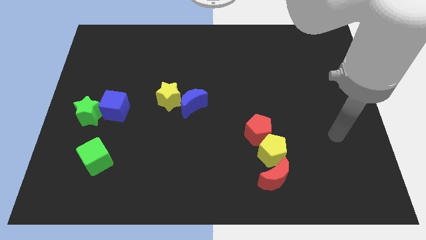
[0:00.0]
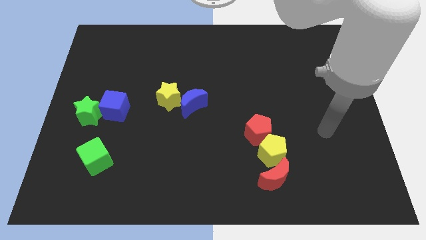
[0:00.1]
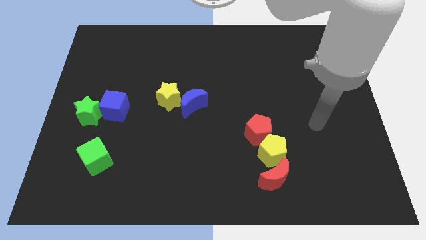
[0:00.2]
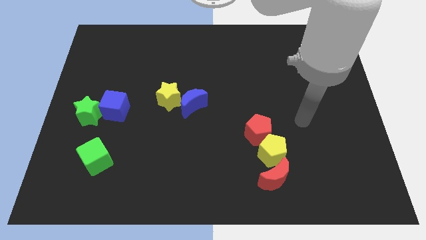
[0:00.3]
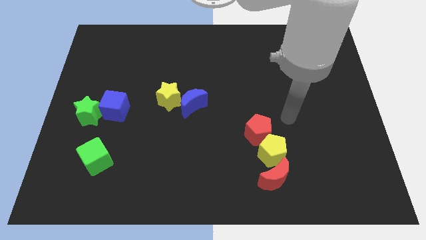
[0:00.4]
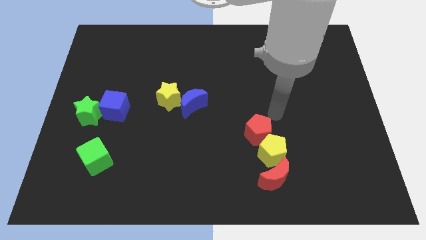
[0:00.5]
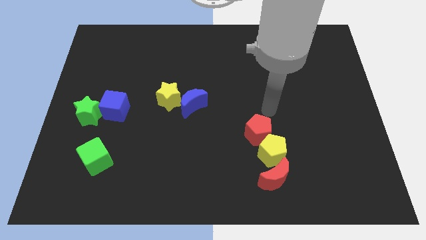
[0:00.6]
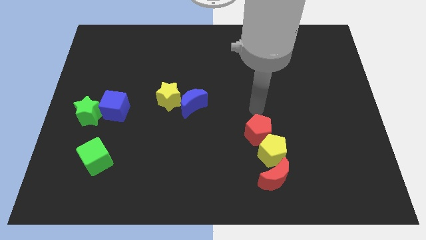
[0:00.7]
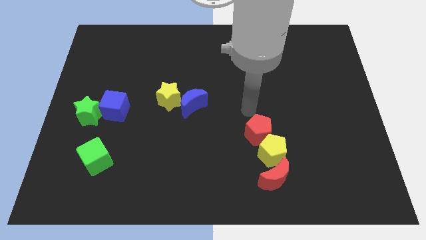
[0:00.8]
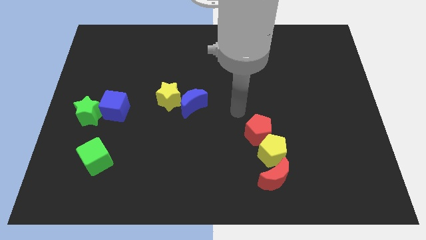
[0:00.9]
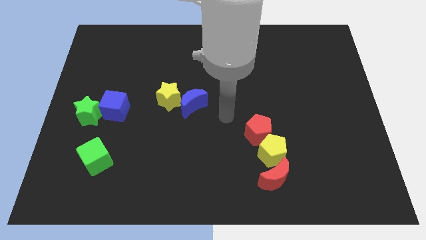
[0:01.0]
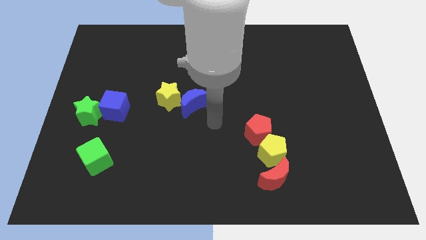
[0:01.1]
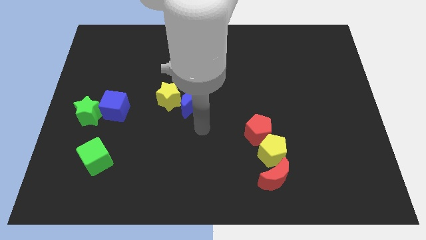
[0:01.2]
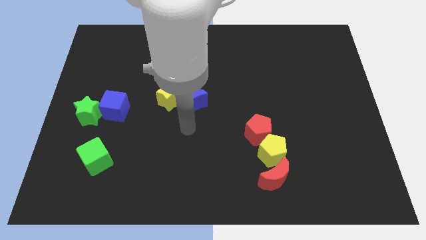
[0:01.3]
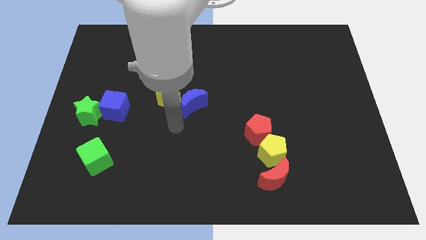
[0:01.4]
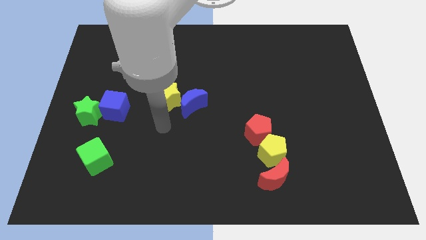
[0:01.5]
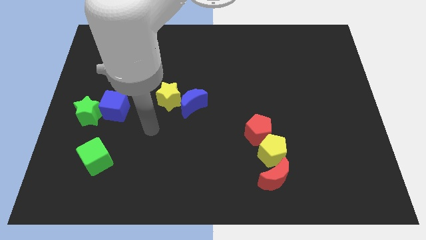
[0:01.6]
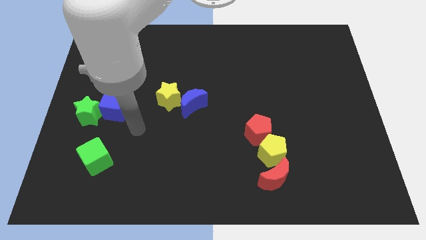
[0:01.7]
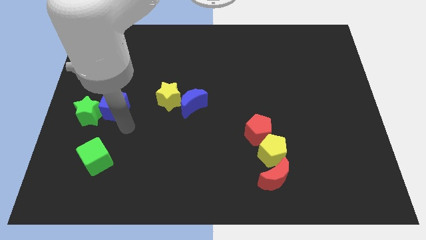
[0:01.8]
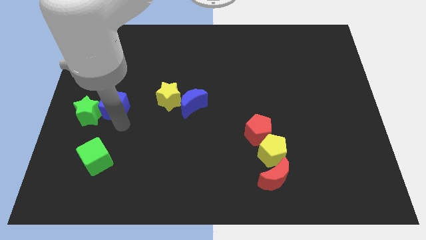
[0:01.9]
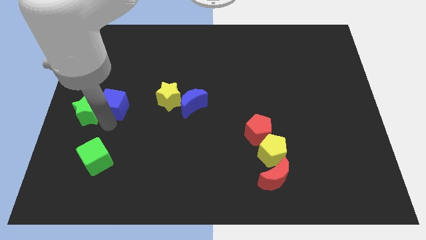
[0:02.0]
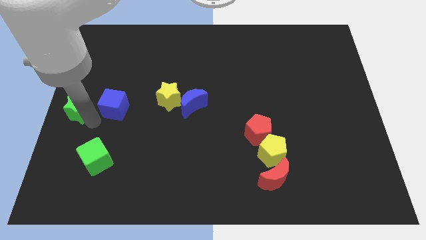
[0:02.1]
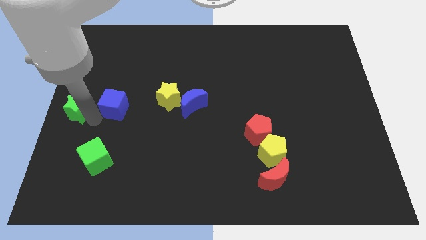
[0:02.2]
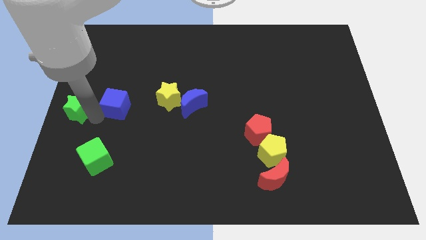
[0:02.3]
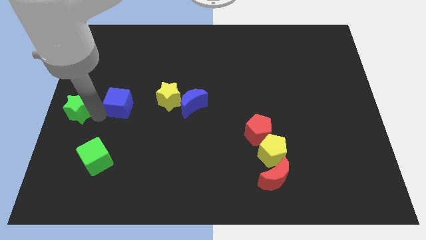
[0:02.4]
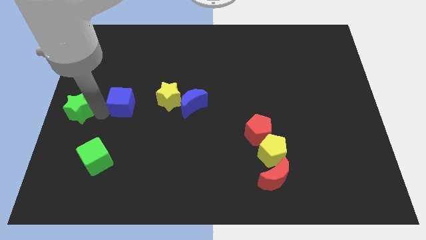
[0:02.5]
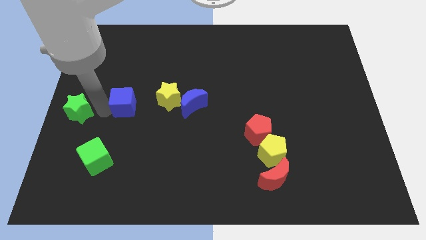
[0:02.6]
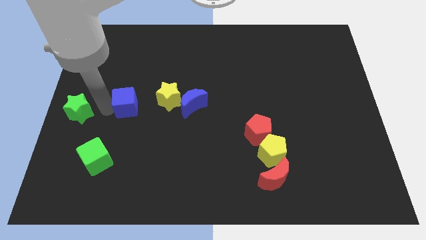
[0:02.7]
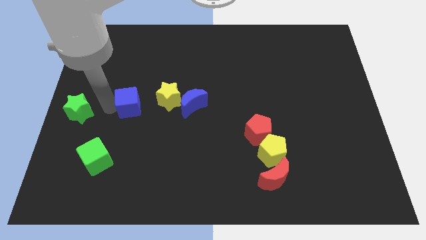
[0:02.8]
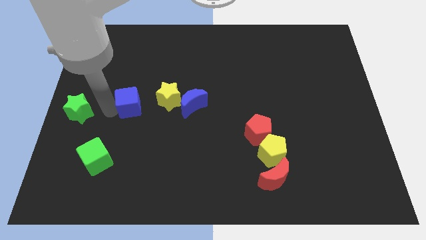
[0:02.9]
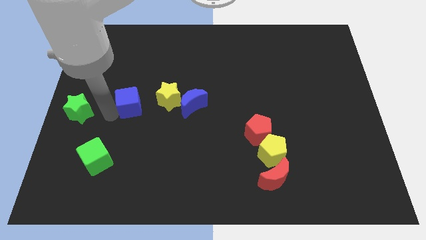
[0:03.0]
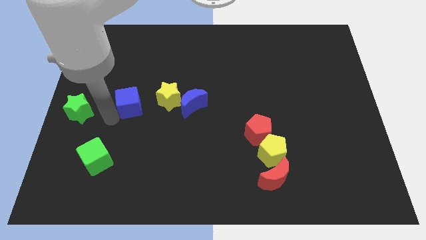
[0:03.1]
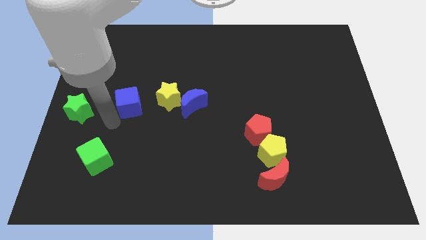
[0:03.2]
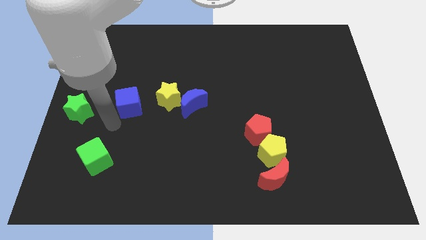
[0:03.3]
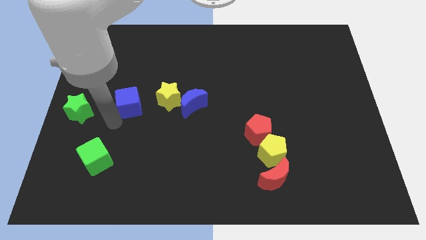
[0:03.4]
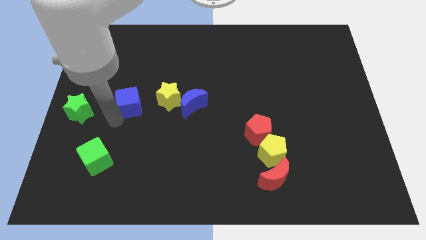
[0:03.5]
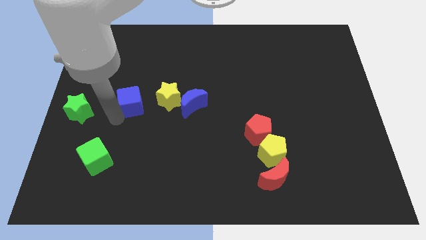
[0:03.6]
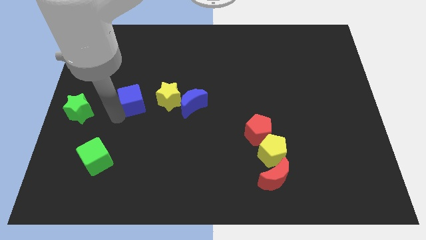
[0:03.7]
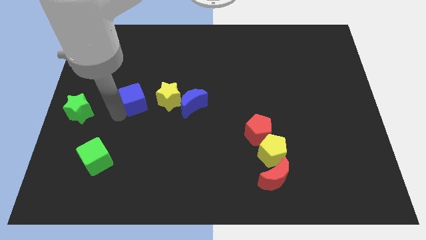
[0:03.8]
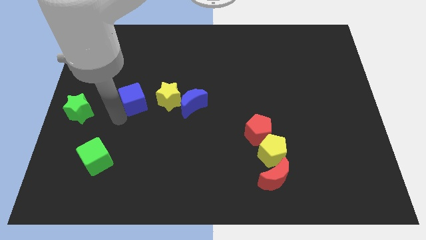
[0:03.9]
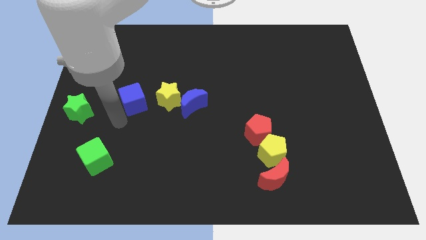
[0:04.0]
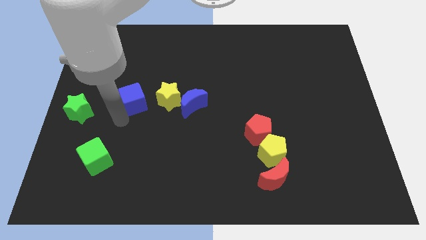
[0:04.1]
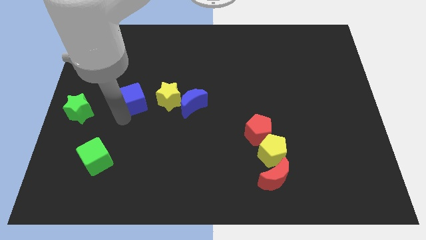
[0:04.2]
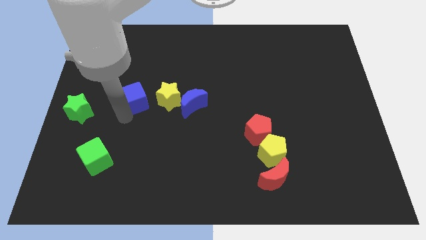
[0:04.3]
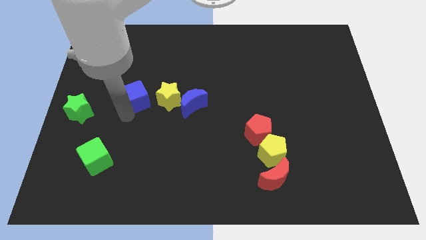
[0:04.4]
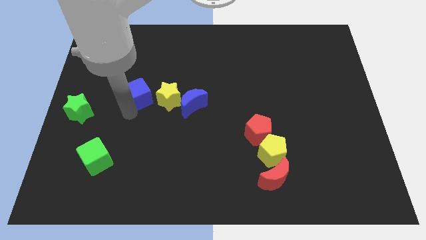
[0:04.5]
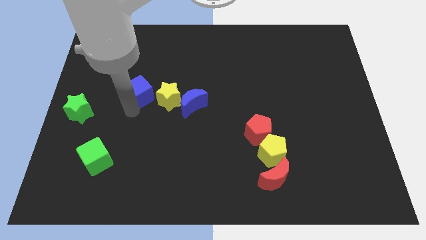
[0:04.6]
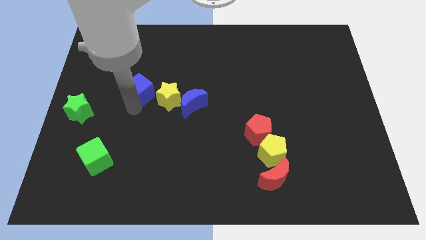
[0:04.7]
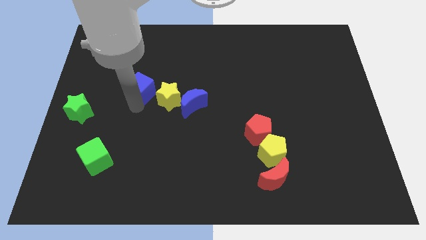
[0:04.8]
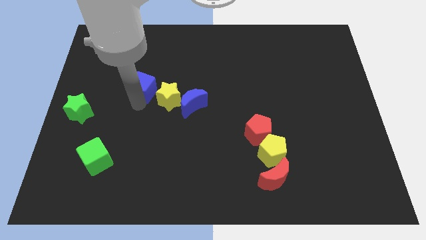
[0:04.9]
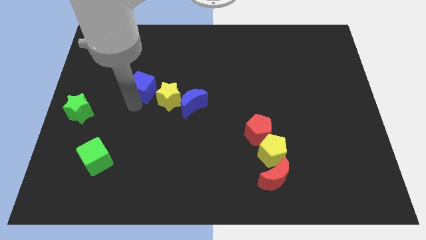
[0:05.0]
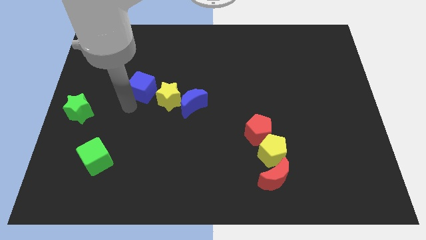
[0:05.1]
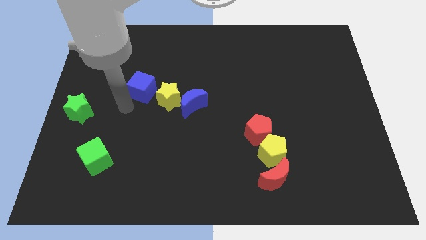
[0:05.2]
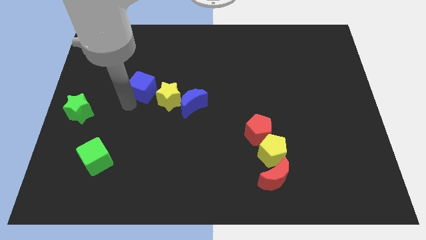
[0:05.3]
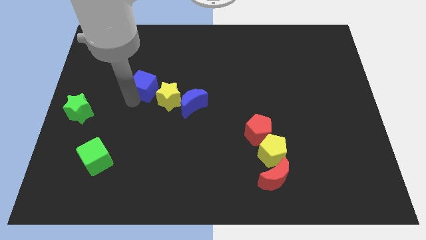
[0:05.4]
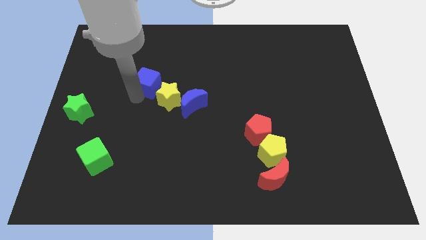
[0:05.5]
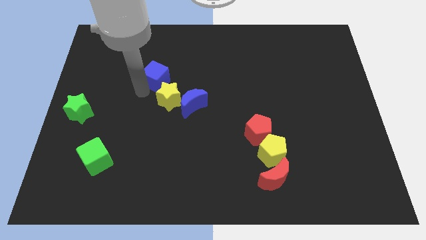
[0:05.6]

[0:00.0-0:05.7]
put the blue cube above the yellow star
